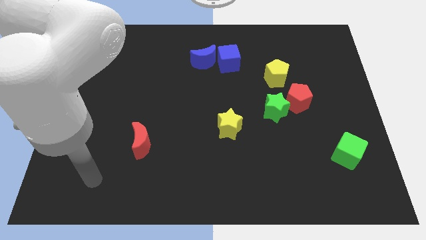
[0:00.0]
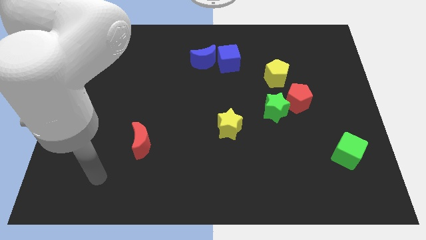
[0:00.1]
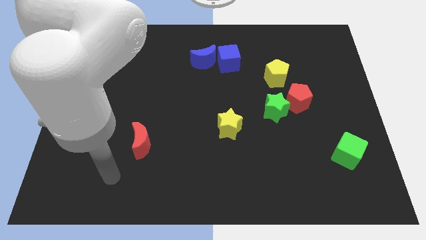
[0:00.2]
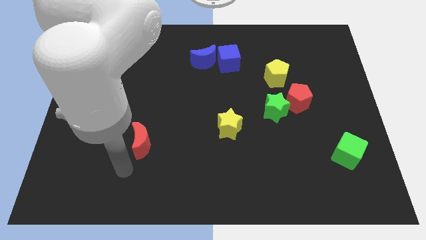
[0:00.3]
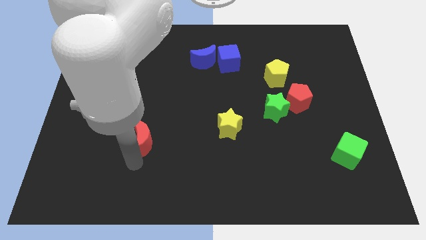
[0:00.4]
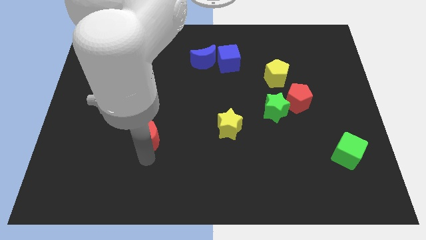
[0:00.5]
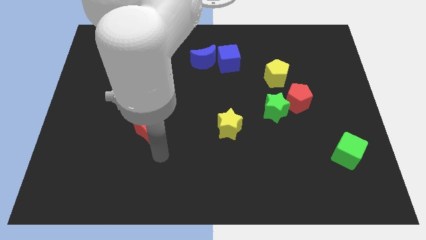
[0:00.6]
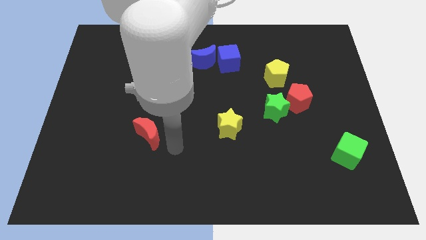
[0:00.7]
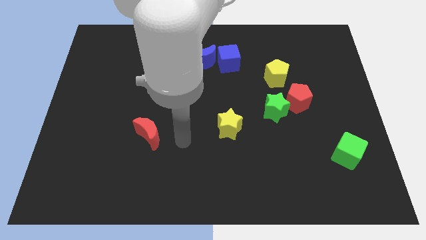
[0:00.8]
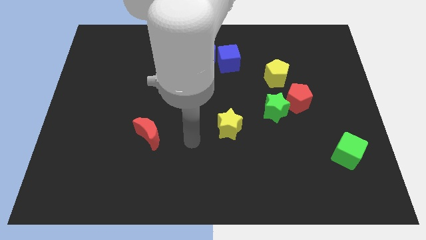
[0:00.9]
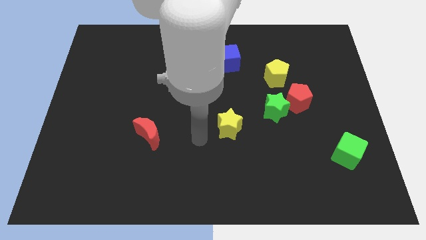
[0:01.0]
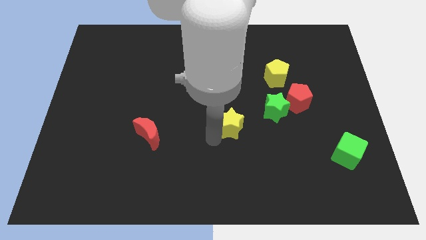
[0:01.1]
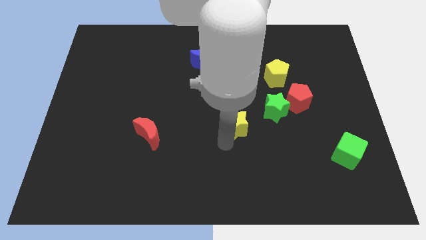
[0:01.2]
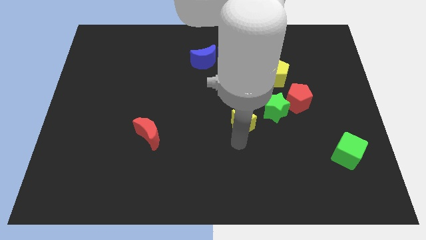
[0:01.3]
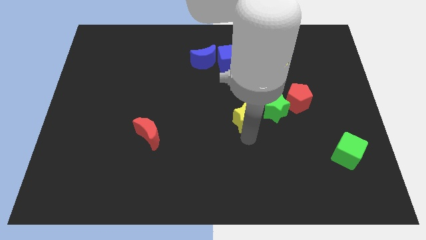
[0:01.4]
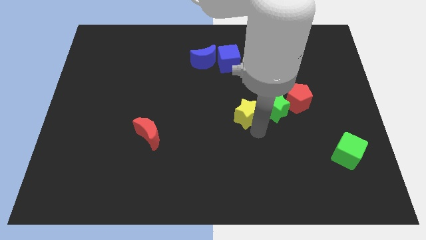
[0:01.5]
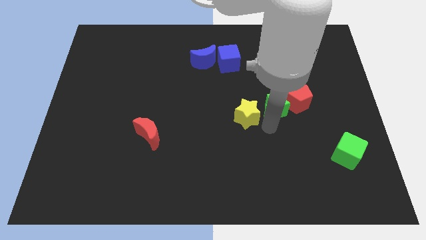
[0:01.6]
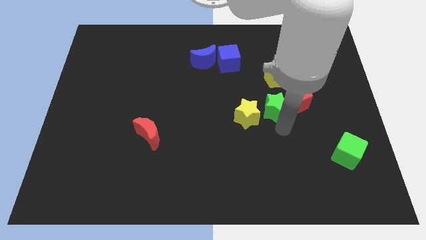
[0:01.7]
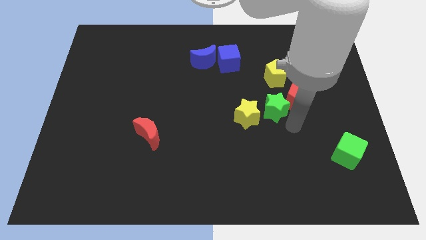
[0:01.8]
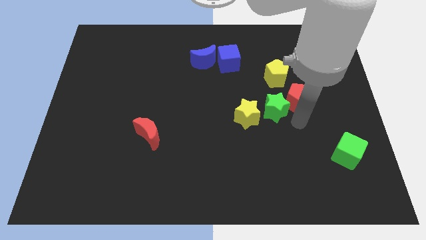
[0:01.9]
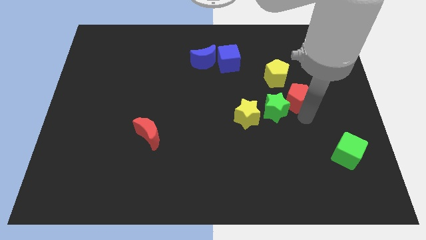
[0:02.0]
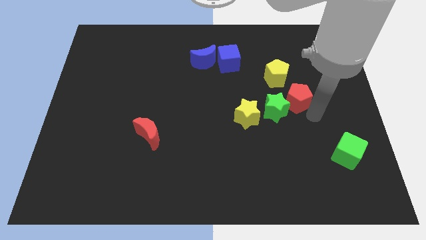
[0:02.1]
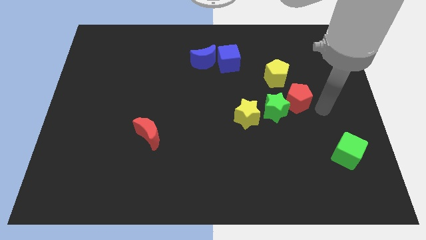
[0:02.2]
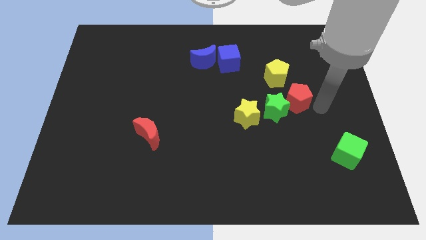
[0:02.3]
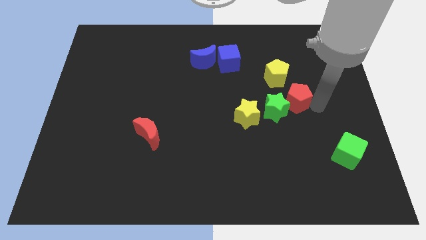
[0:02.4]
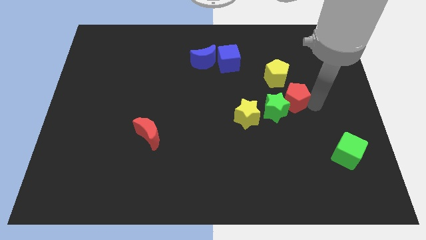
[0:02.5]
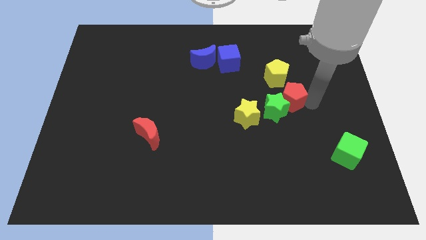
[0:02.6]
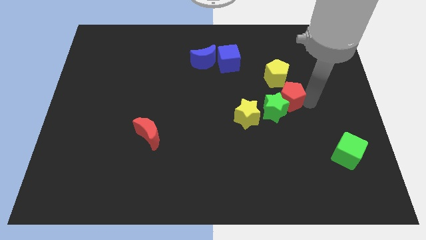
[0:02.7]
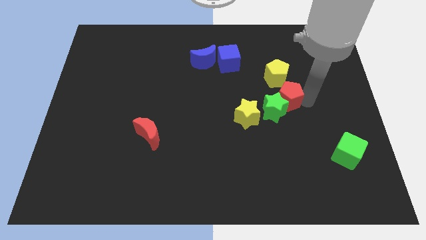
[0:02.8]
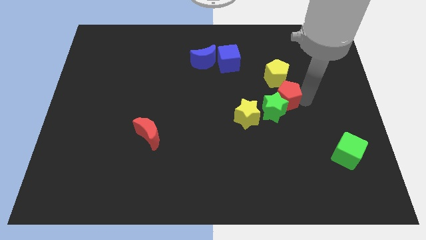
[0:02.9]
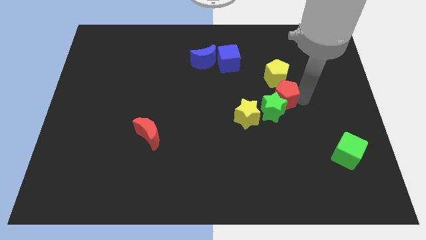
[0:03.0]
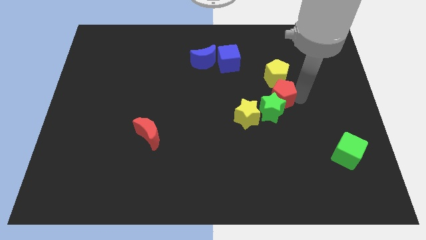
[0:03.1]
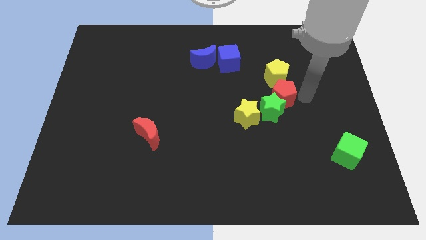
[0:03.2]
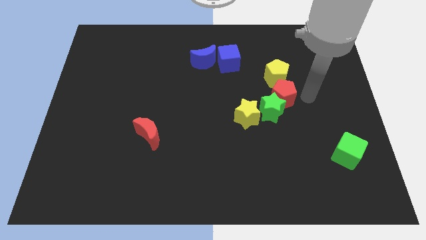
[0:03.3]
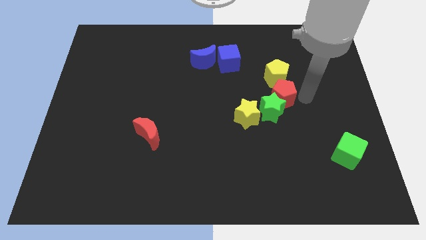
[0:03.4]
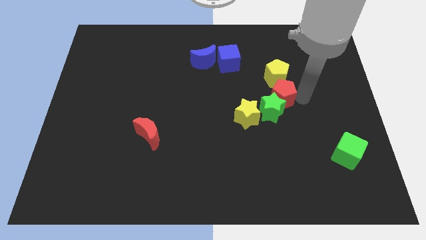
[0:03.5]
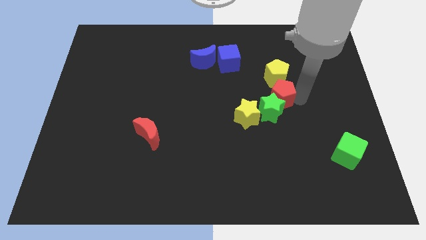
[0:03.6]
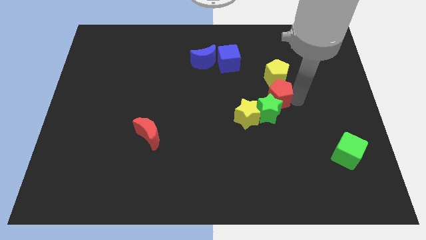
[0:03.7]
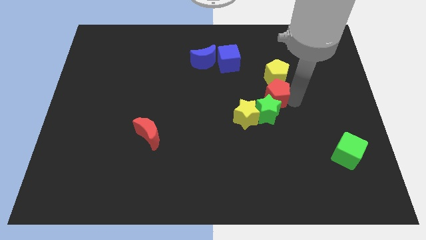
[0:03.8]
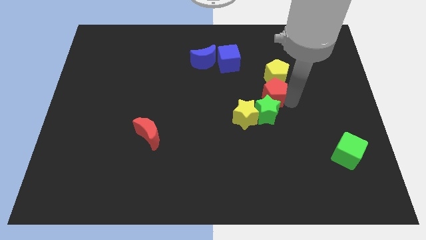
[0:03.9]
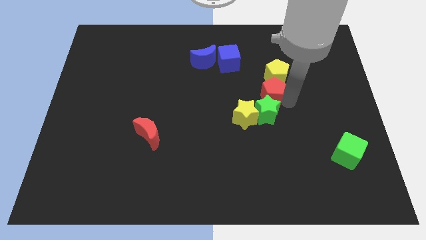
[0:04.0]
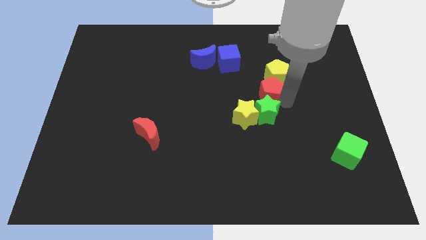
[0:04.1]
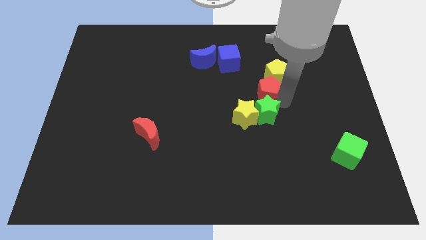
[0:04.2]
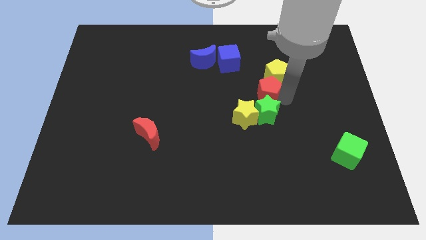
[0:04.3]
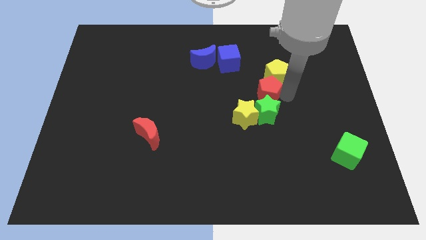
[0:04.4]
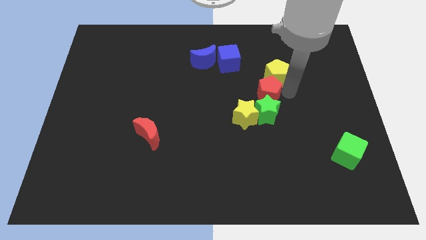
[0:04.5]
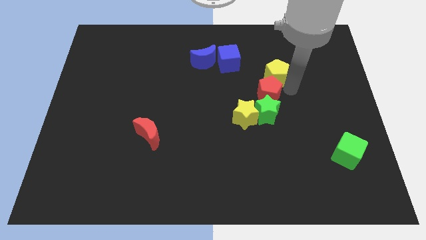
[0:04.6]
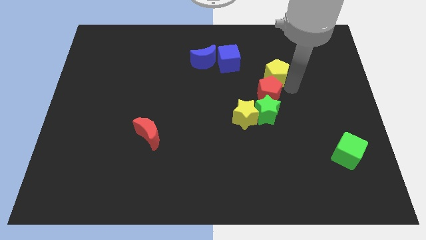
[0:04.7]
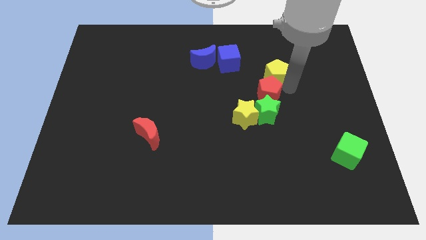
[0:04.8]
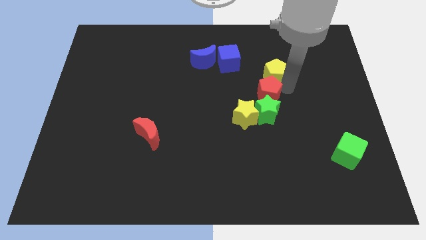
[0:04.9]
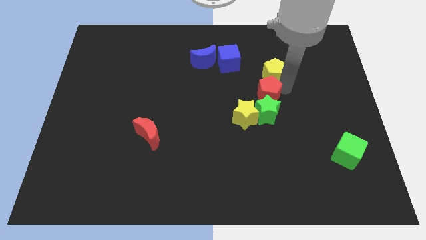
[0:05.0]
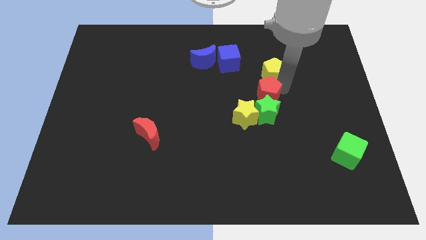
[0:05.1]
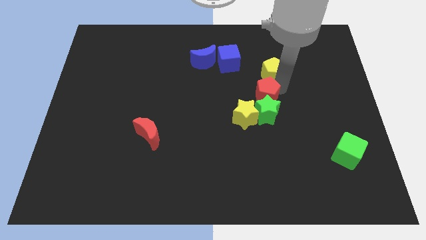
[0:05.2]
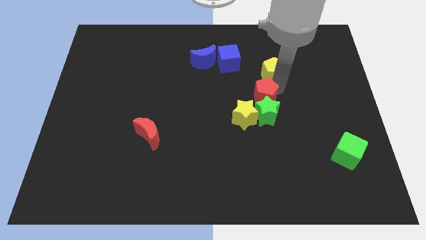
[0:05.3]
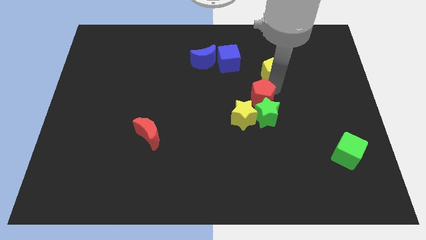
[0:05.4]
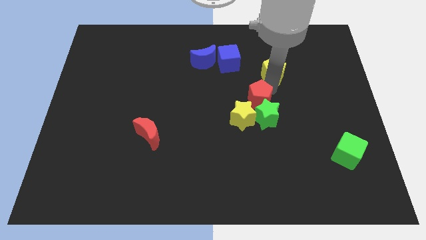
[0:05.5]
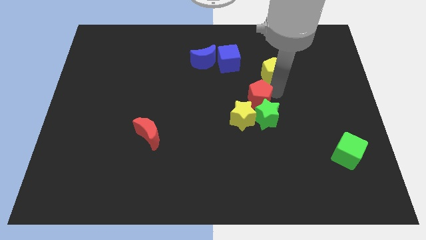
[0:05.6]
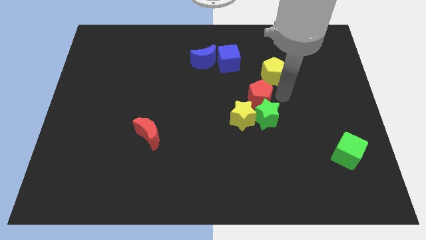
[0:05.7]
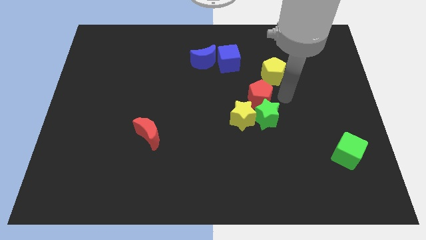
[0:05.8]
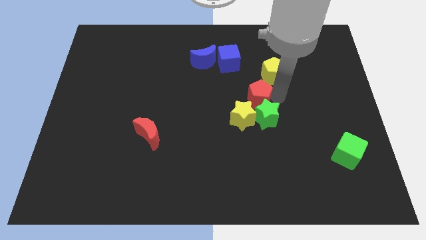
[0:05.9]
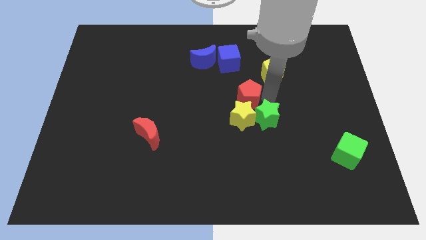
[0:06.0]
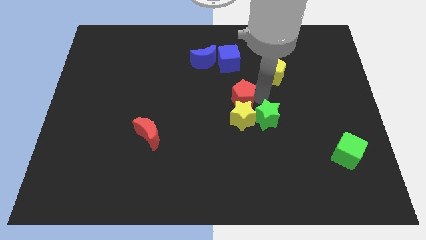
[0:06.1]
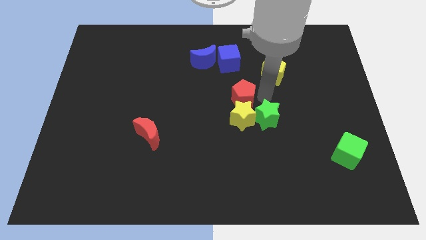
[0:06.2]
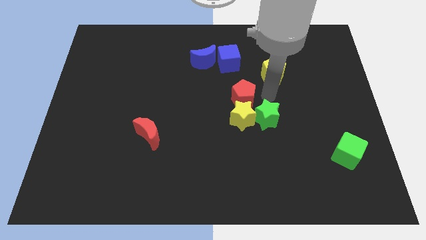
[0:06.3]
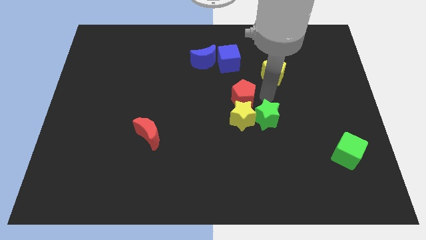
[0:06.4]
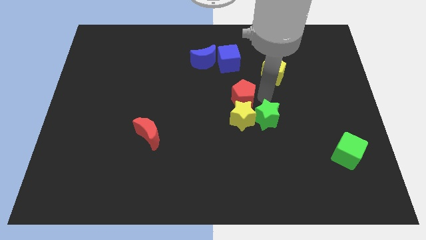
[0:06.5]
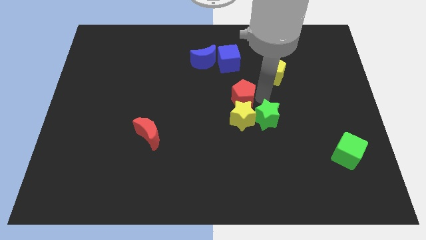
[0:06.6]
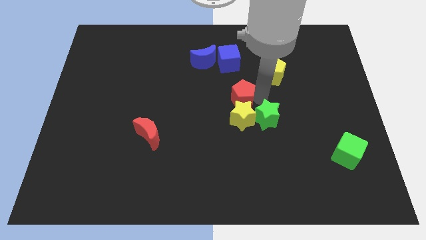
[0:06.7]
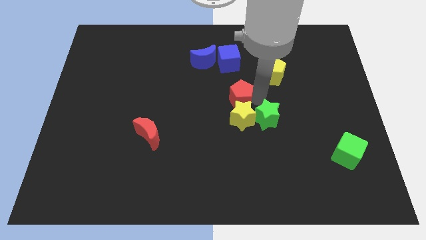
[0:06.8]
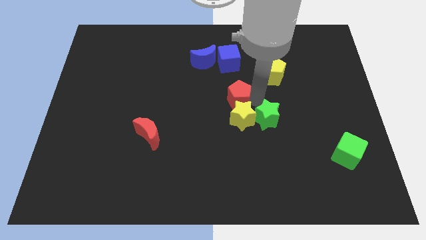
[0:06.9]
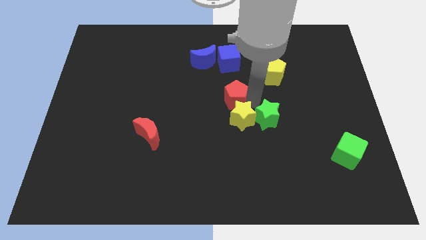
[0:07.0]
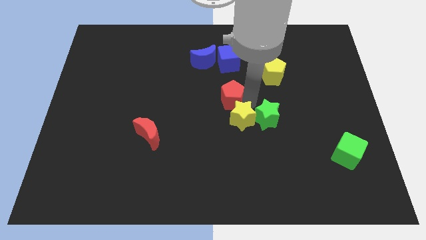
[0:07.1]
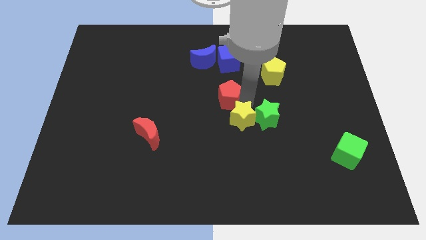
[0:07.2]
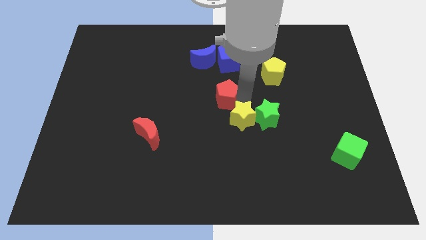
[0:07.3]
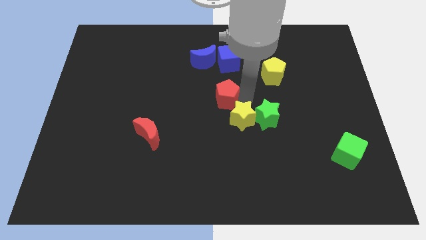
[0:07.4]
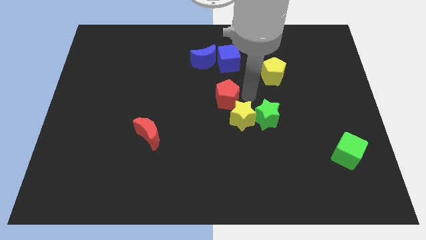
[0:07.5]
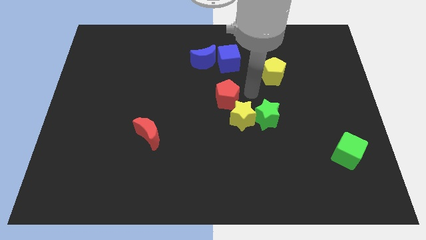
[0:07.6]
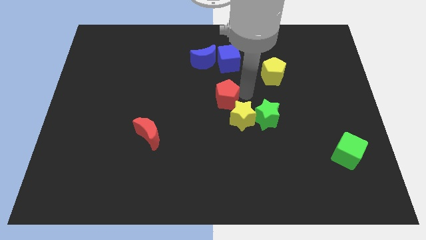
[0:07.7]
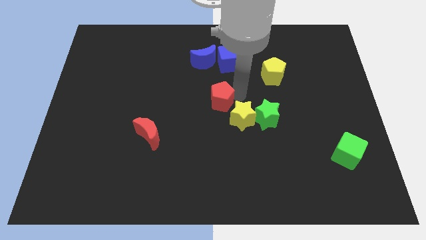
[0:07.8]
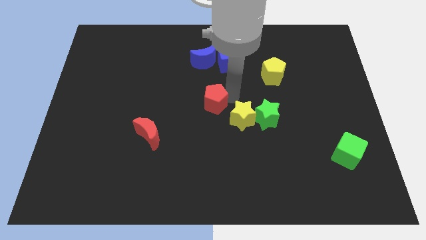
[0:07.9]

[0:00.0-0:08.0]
slide the red pentagon left
